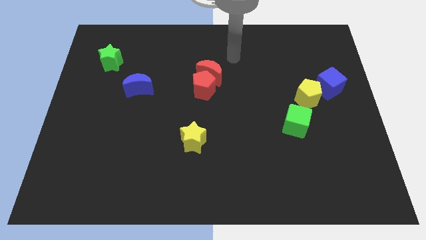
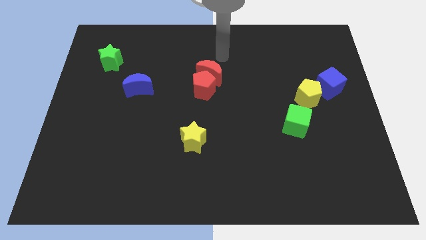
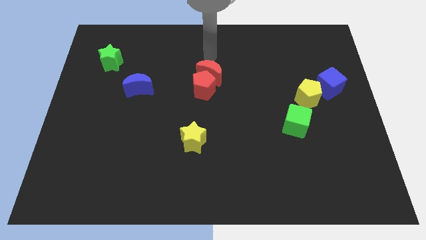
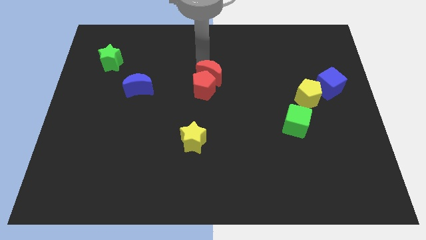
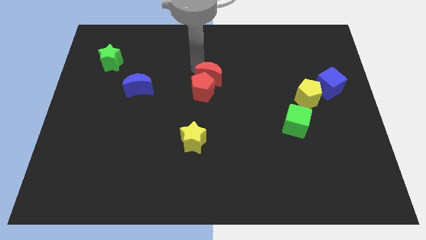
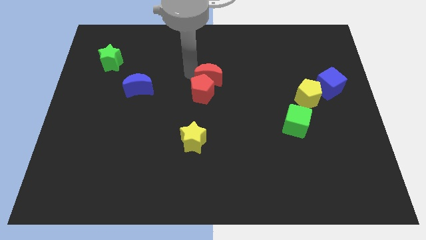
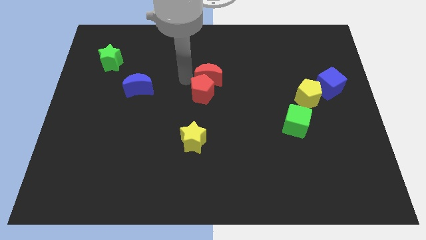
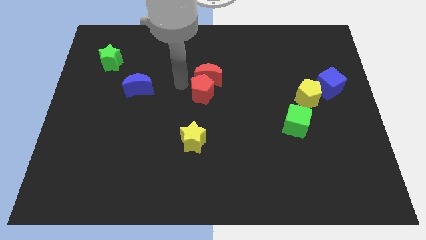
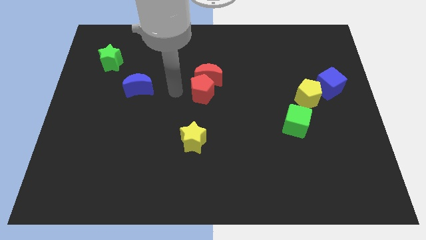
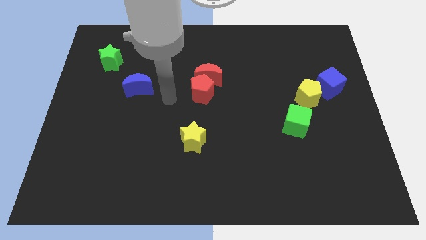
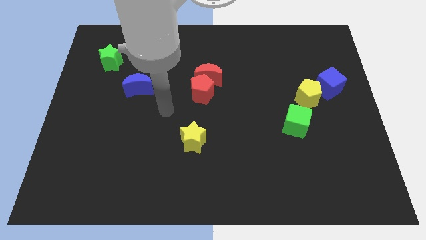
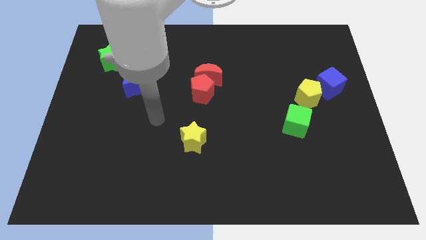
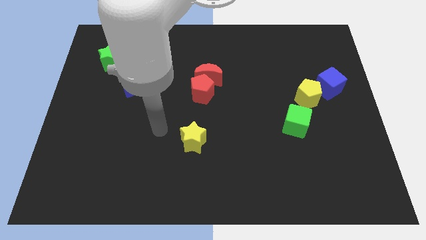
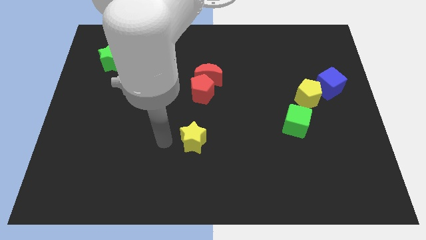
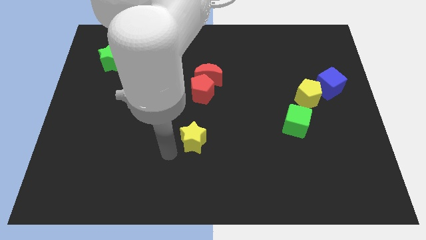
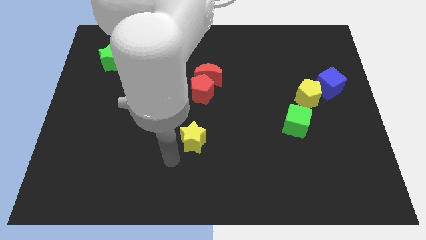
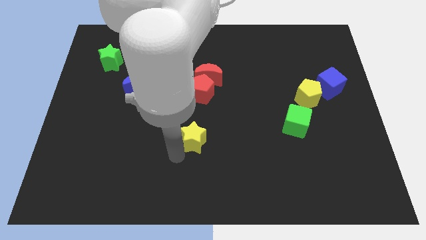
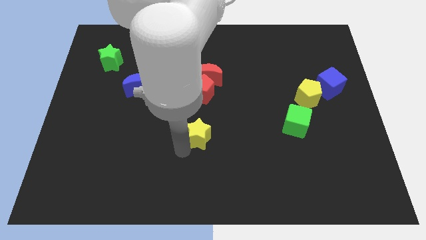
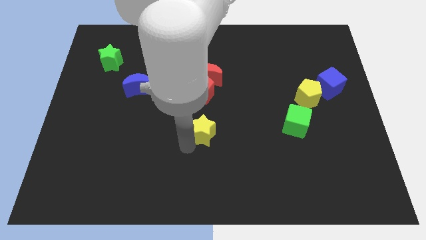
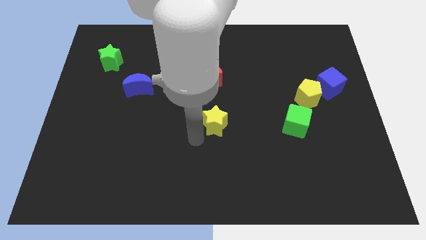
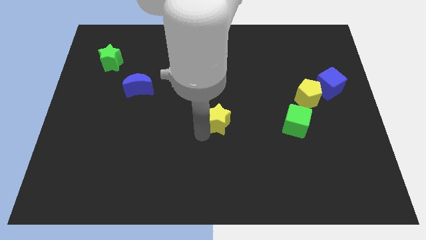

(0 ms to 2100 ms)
move the yellow star up and to the right a little

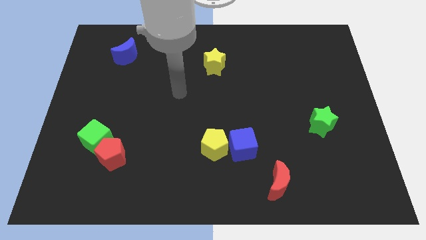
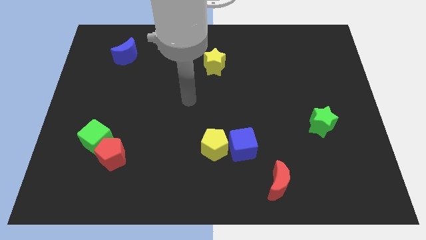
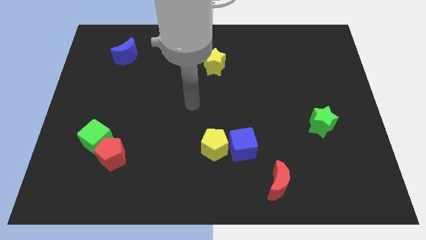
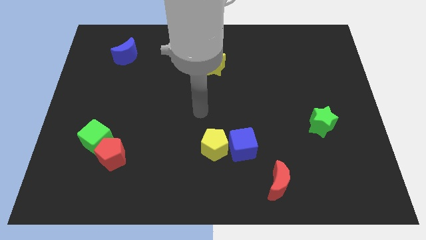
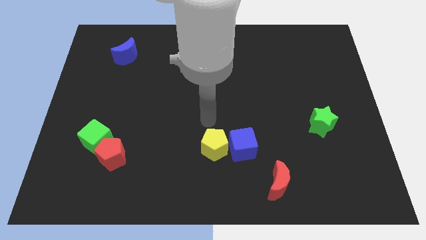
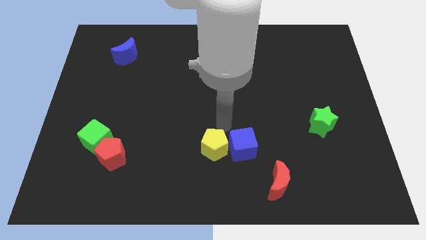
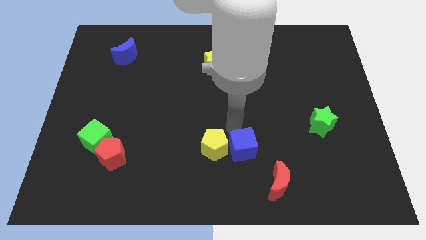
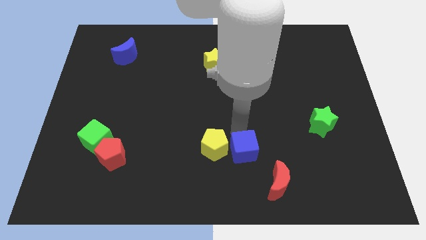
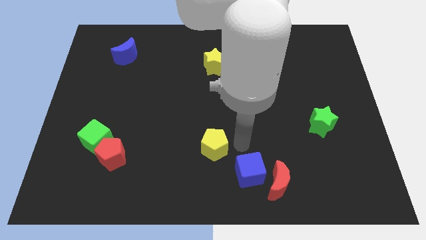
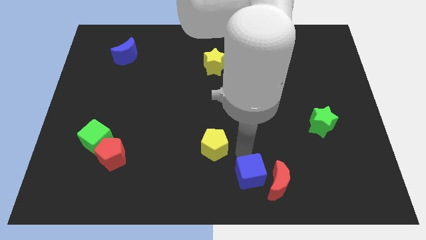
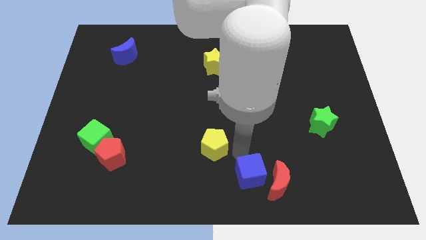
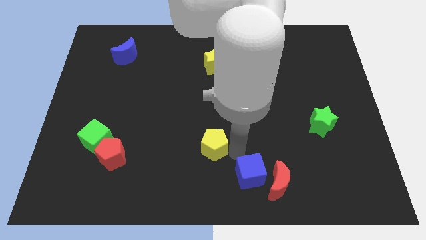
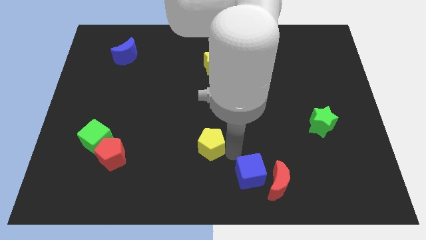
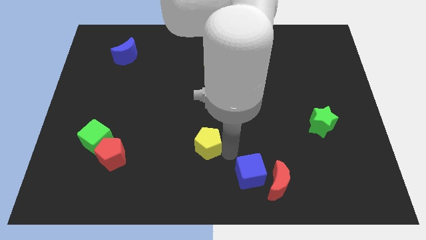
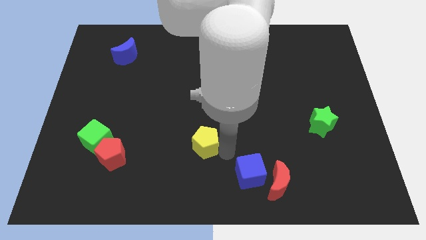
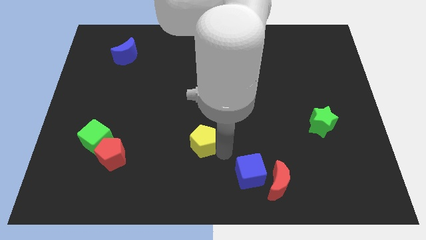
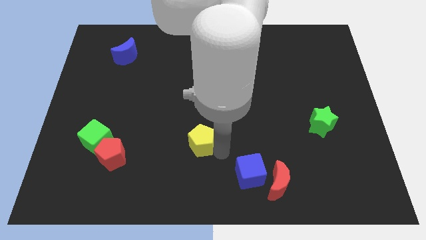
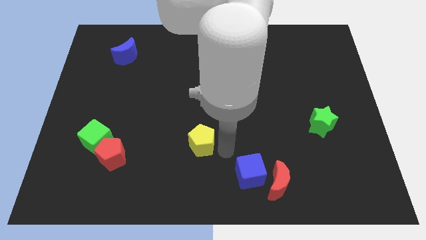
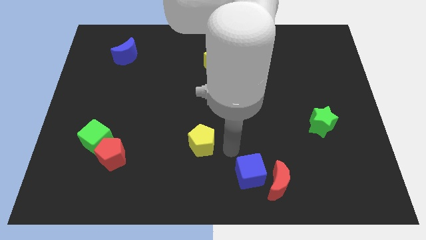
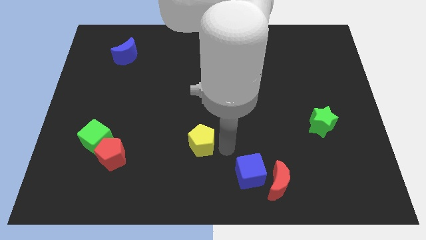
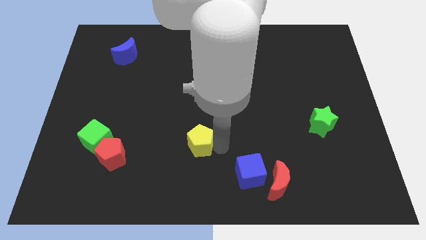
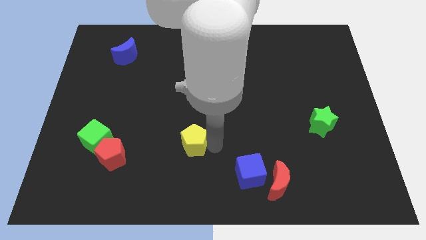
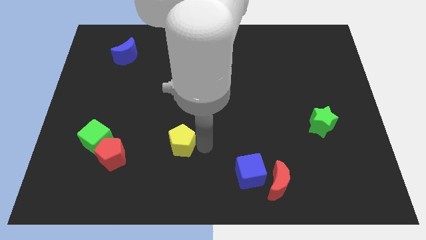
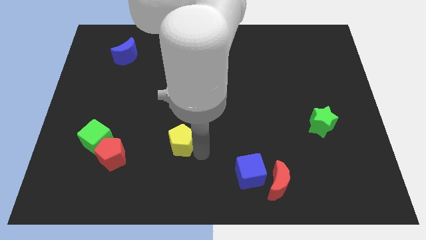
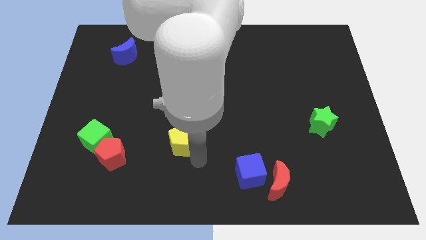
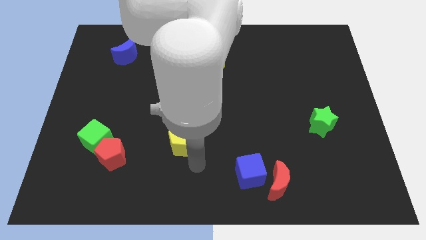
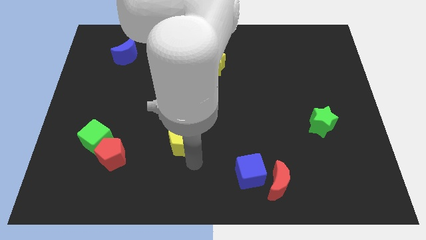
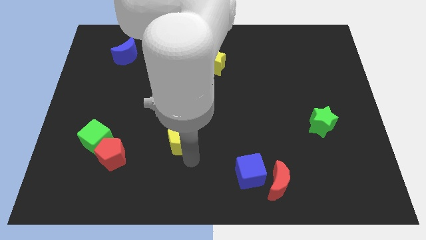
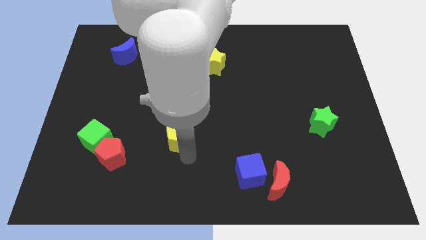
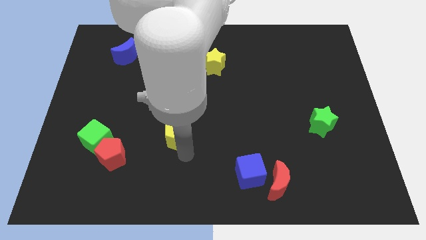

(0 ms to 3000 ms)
slightly slide the yellow pentagon upwards and left

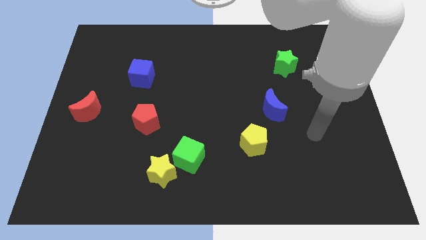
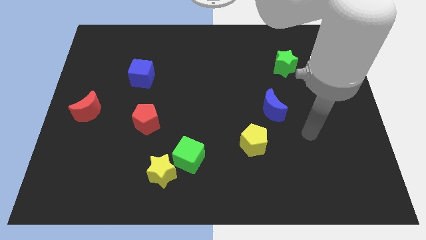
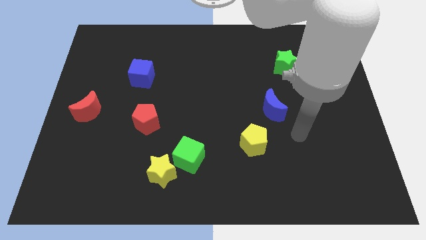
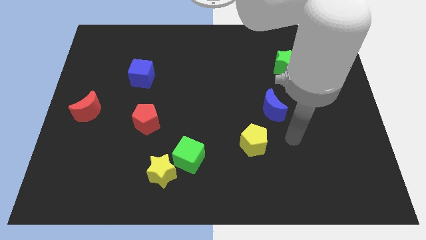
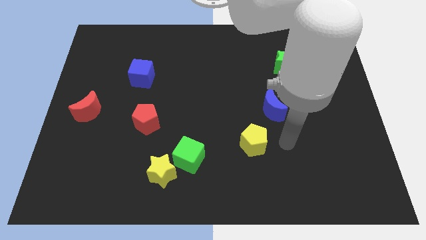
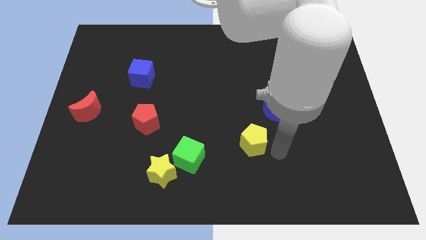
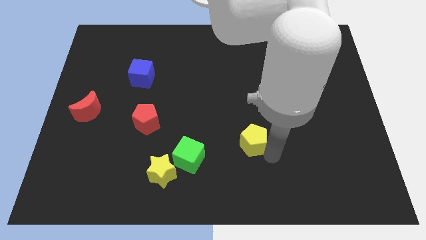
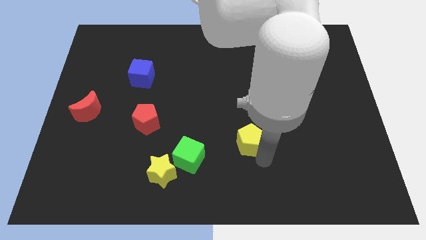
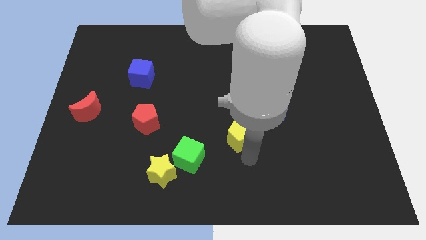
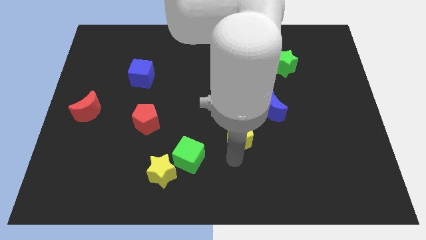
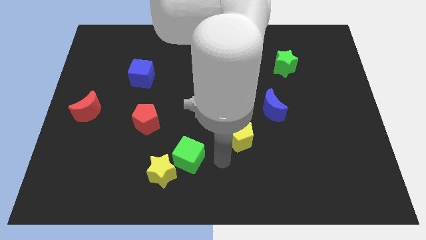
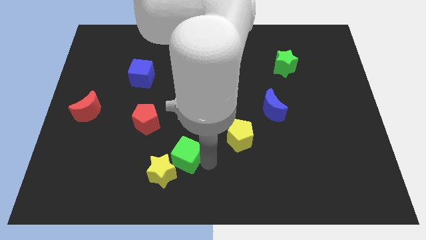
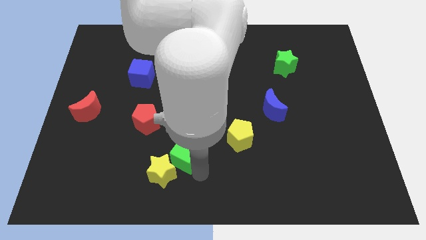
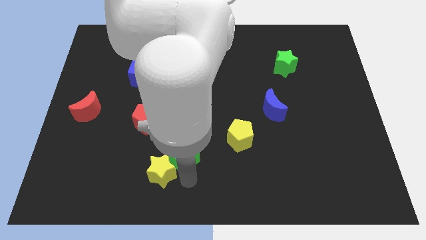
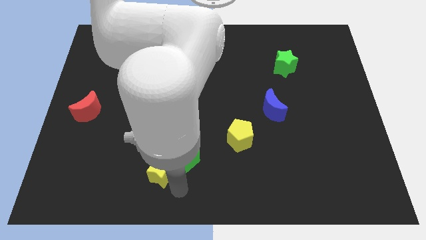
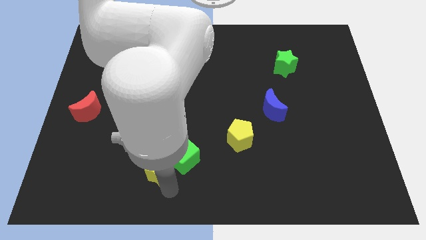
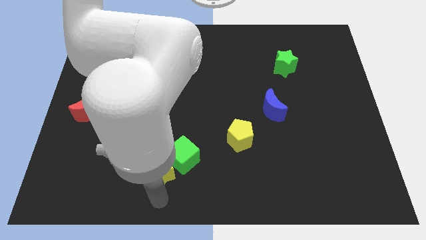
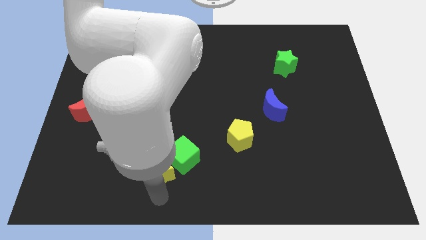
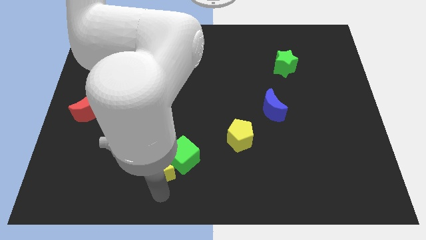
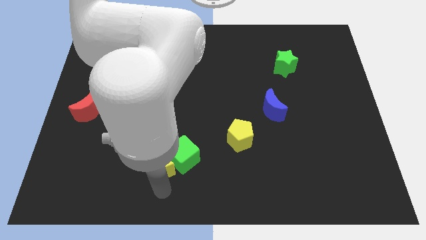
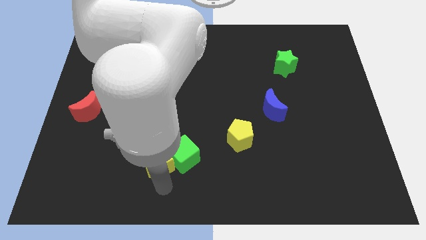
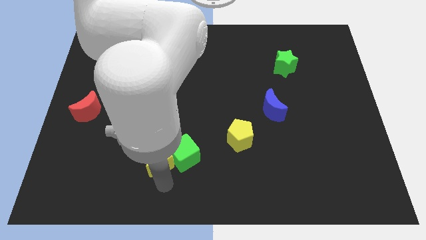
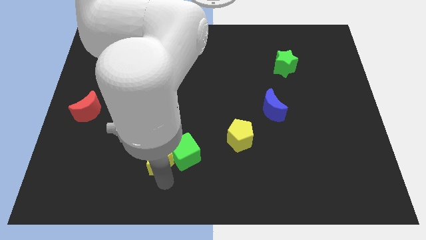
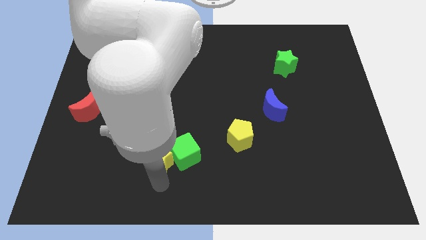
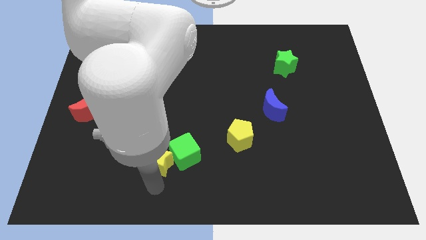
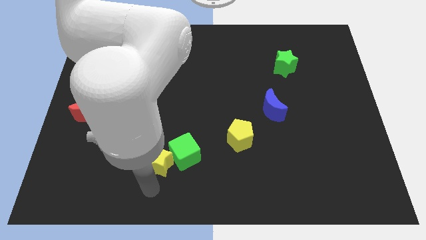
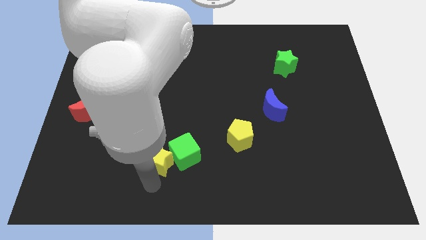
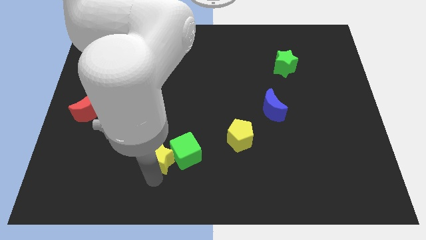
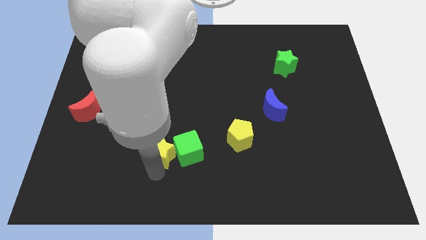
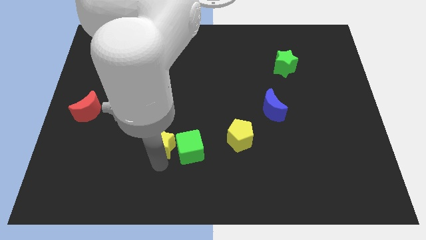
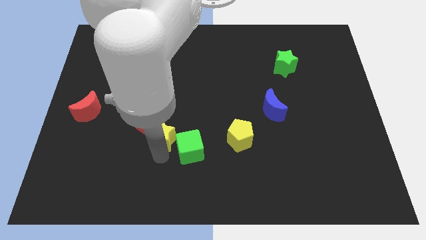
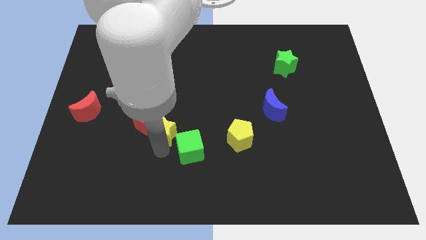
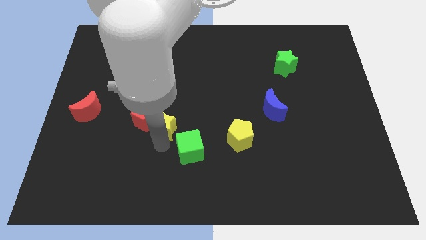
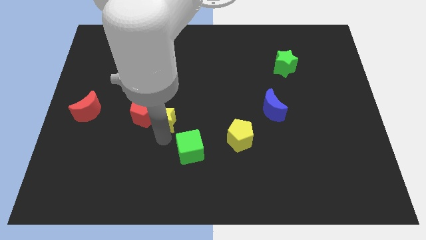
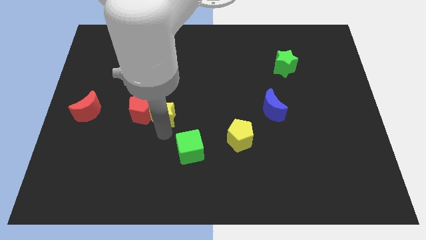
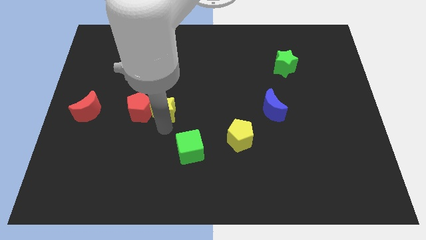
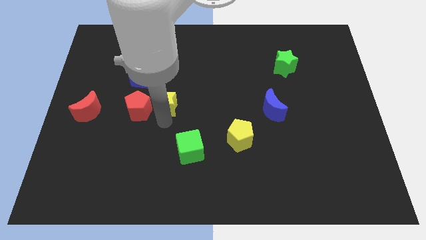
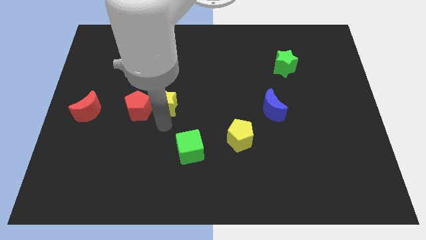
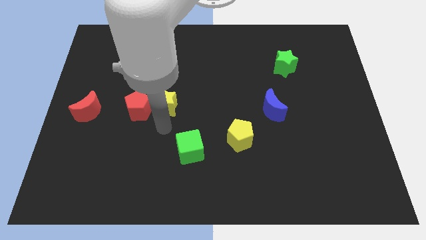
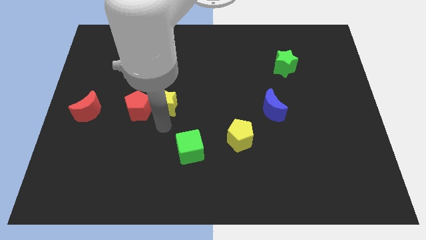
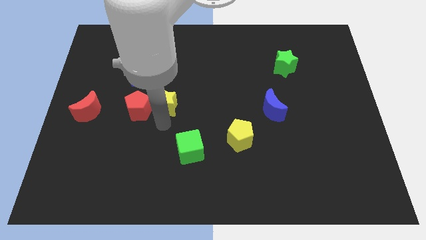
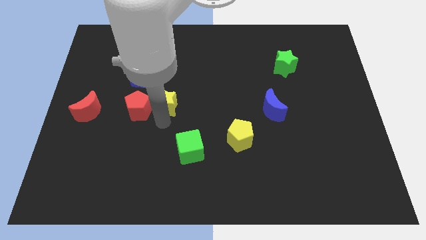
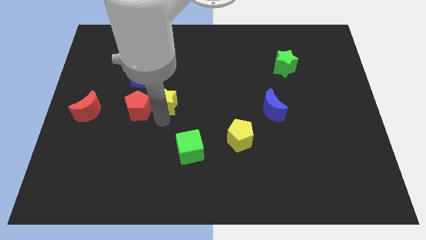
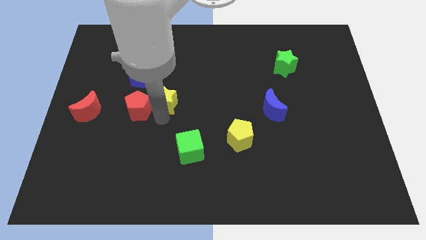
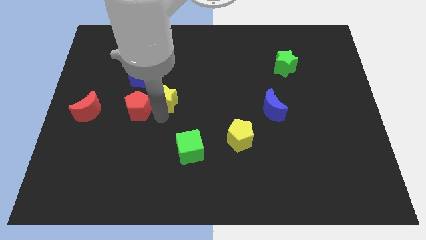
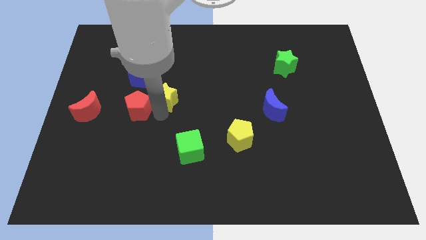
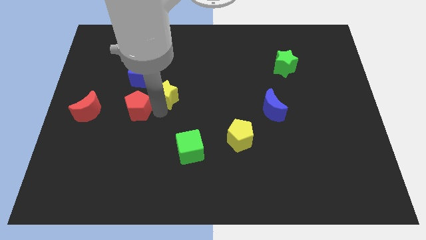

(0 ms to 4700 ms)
move the yellow star upwards
